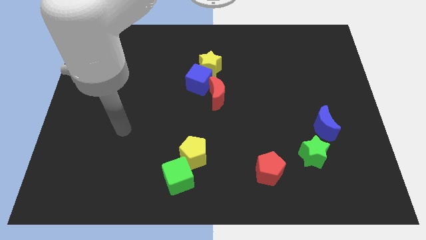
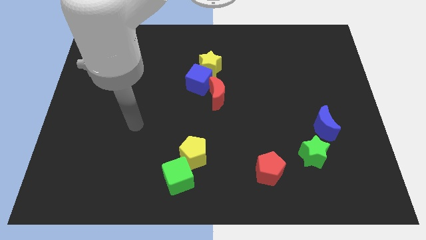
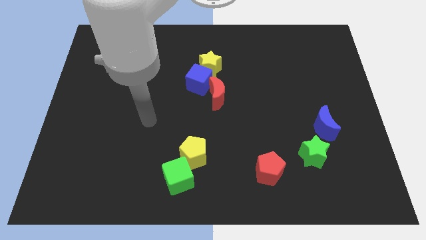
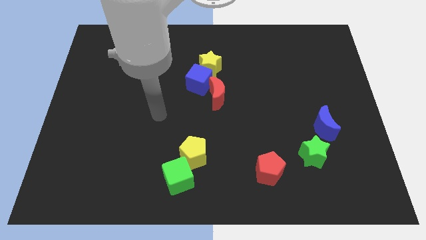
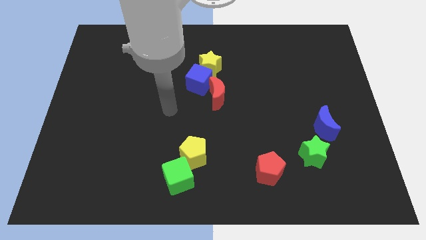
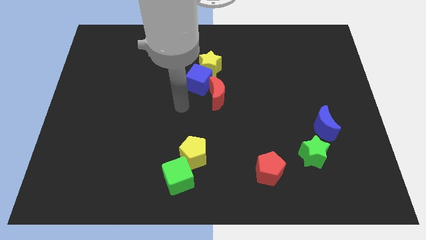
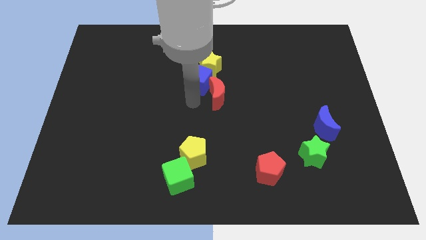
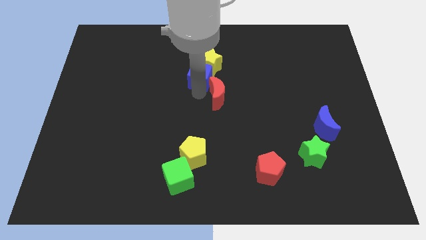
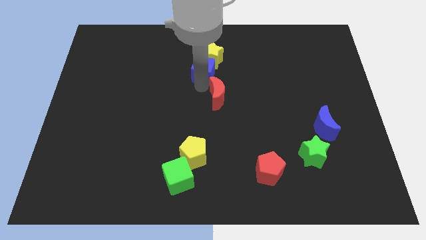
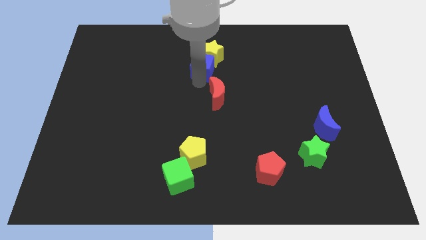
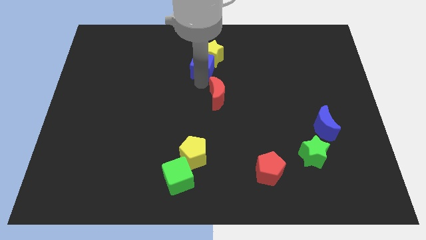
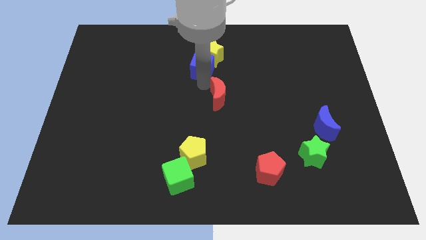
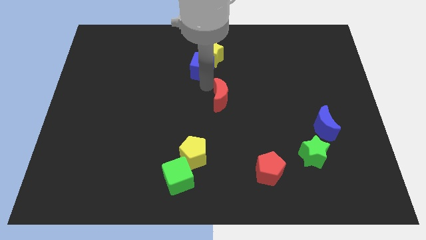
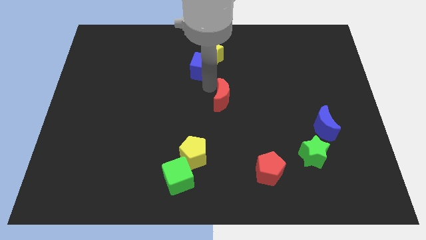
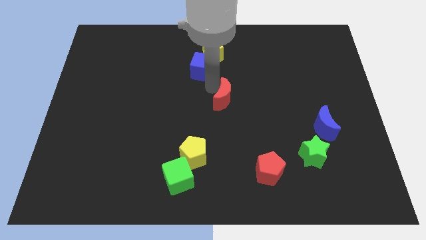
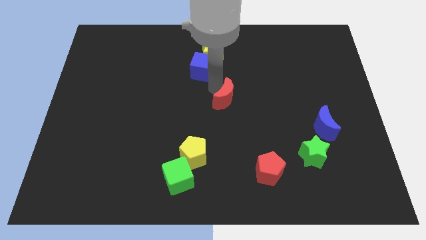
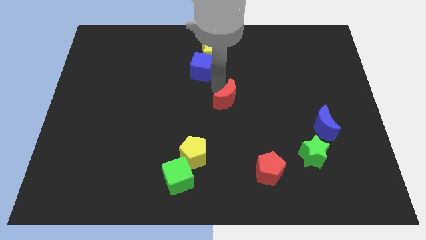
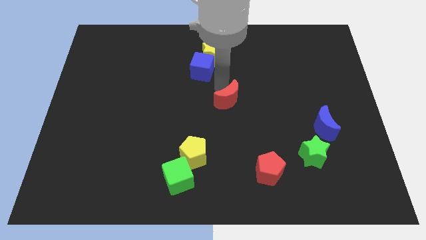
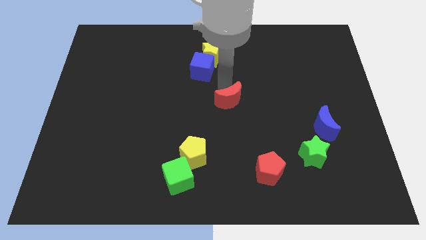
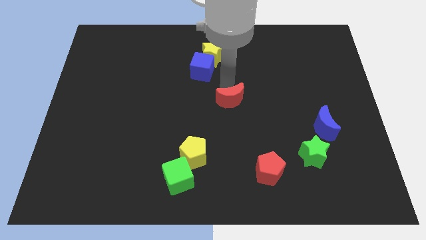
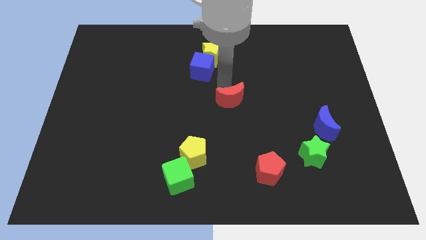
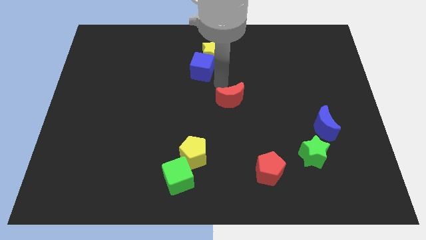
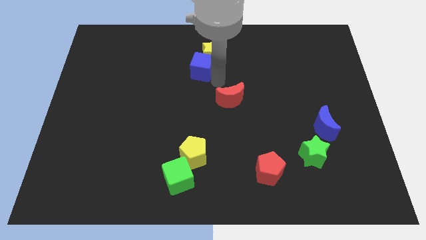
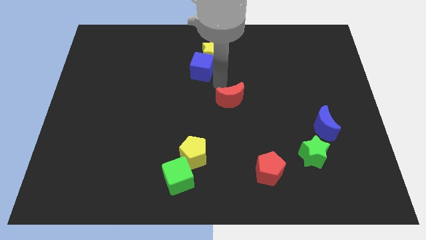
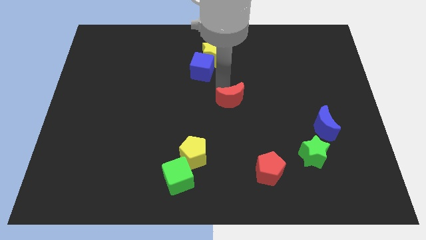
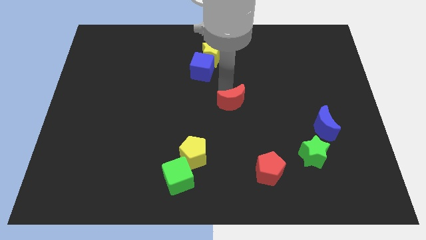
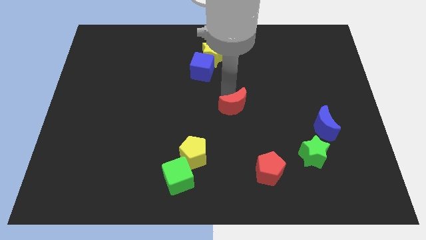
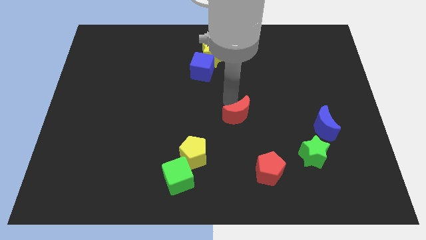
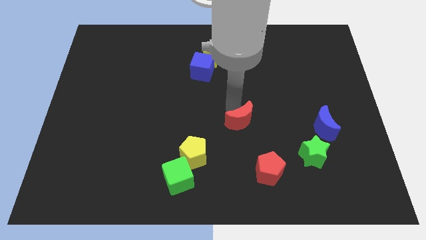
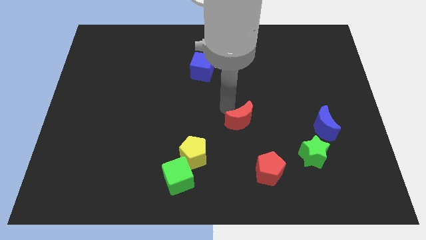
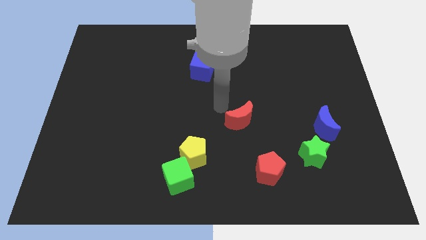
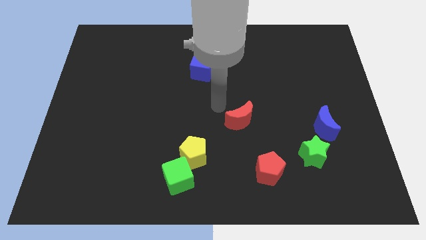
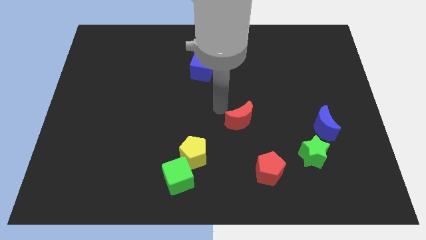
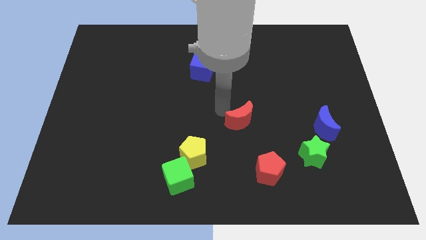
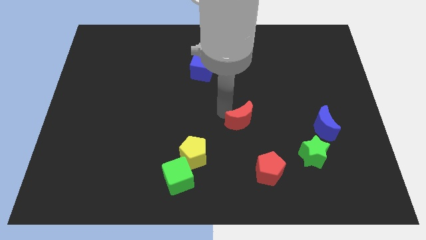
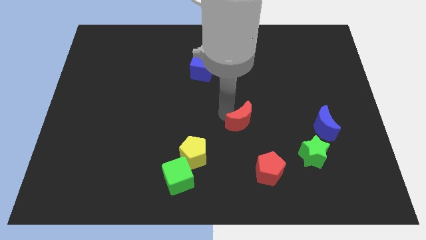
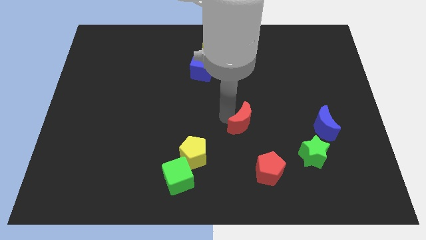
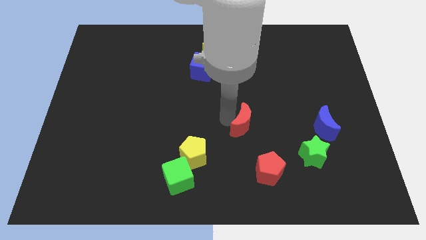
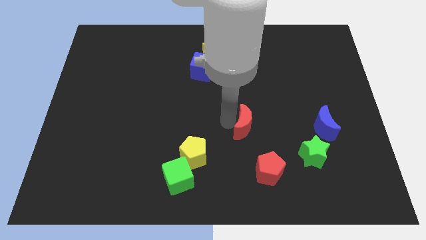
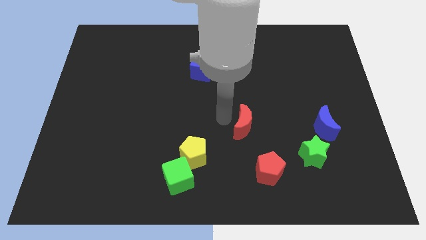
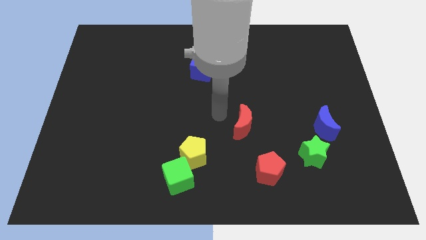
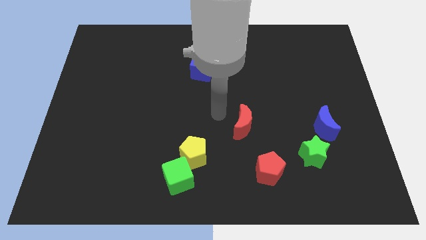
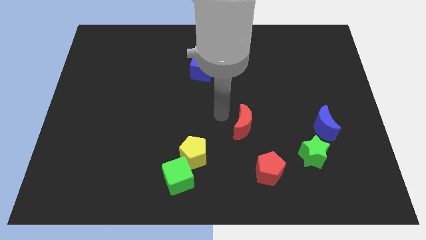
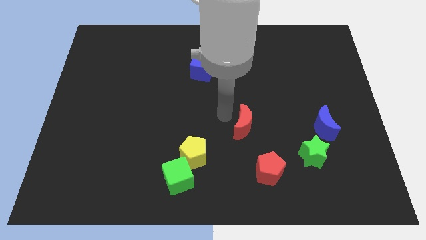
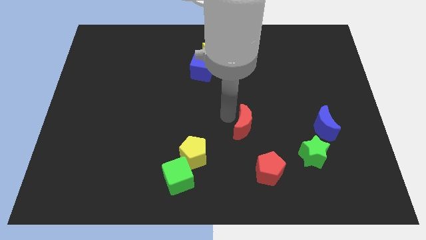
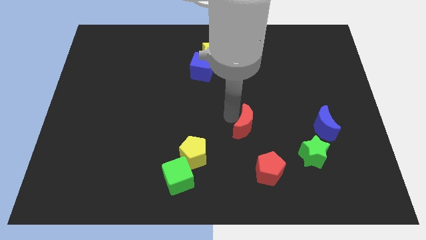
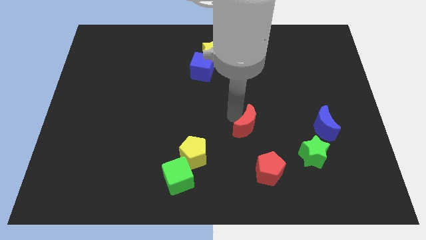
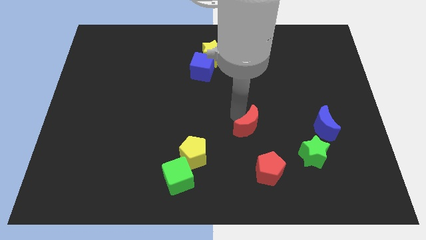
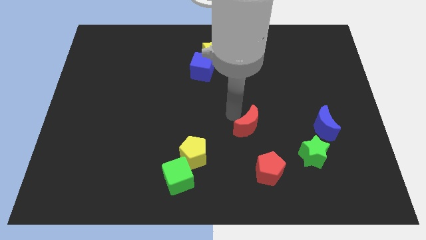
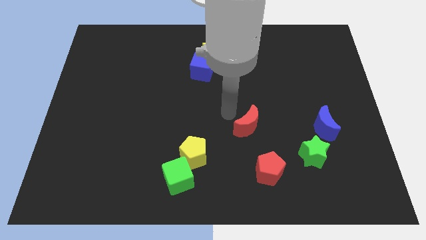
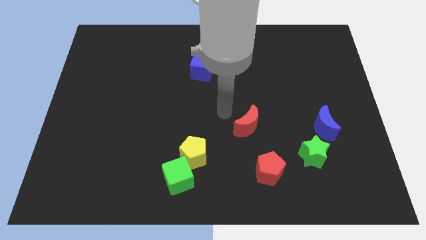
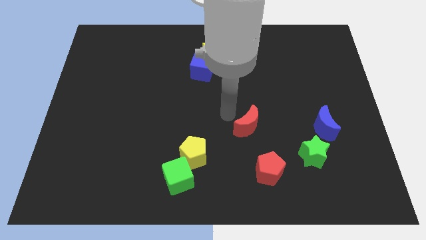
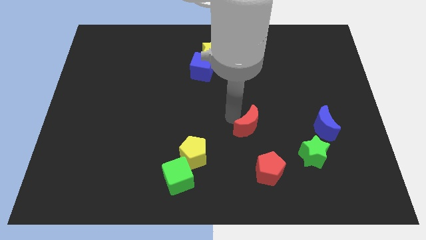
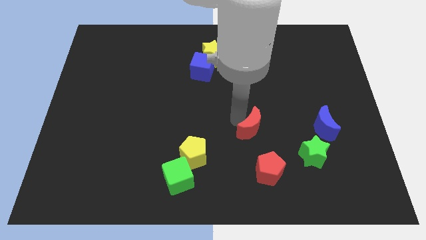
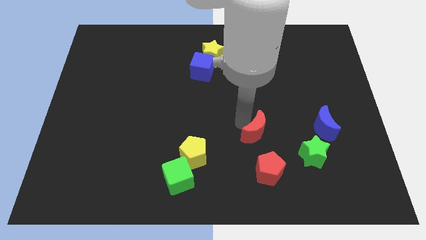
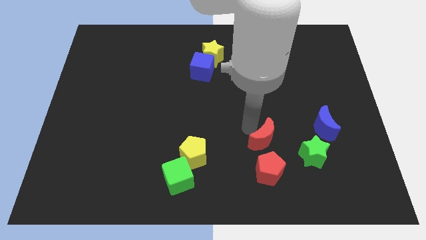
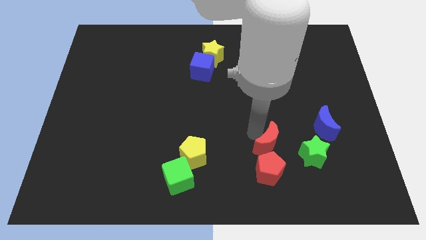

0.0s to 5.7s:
push the red moon diagonally up and to the right of the red pentagon

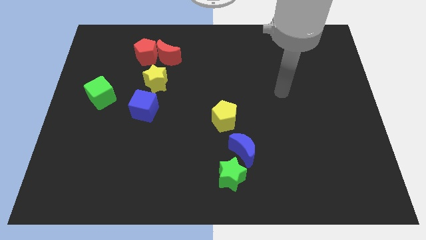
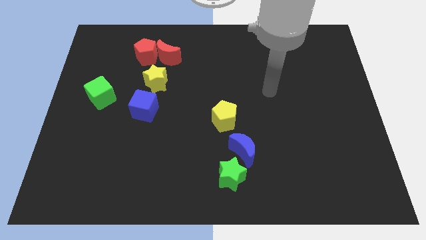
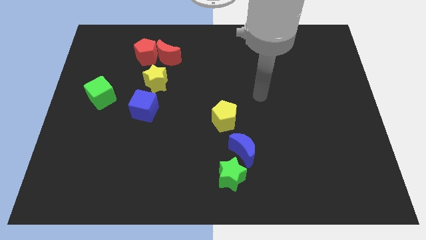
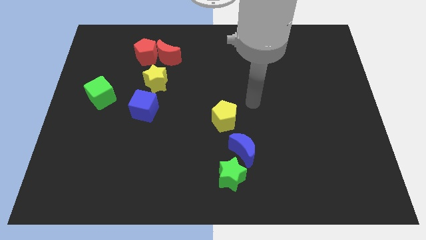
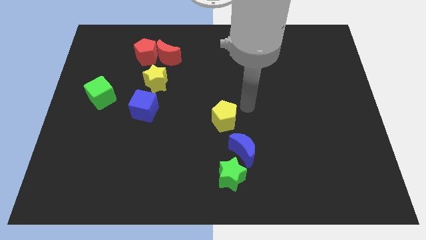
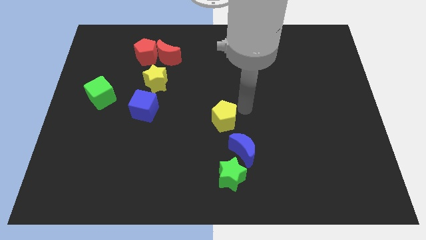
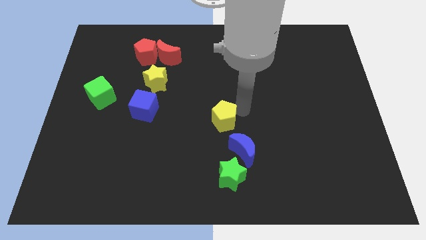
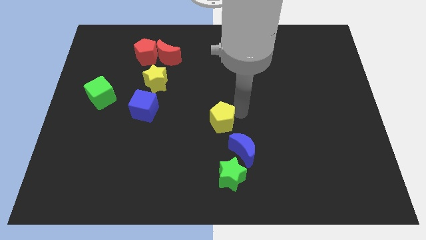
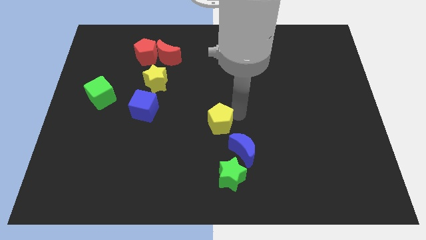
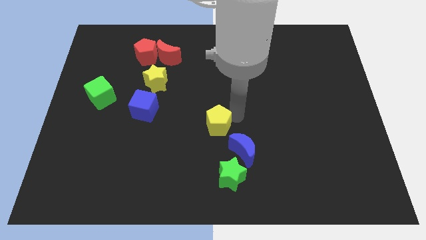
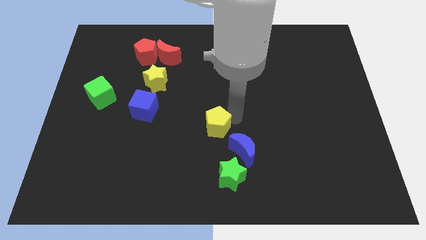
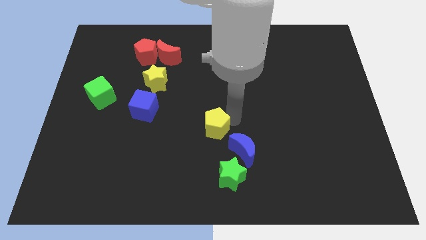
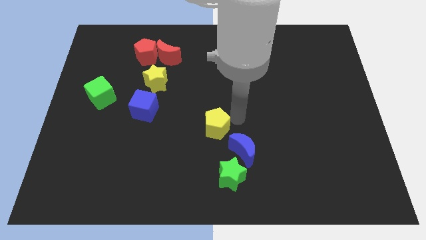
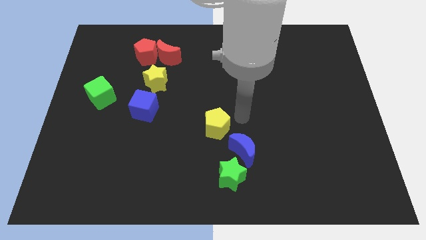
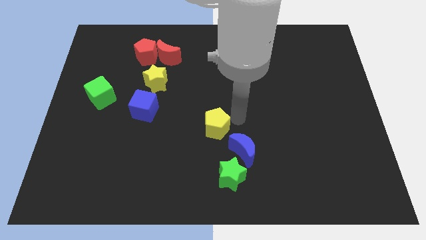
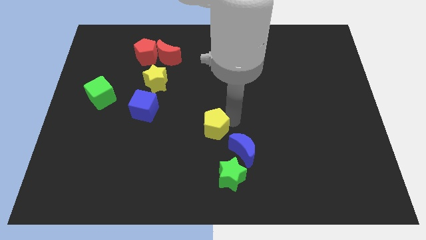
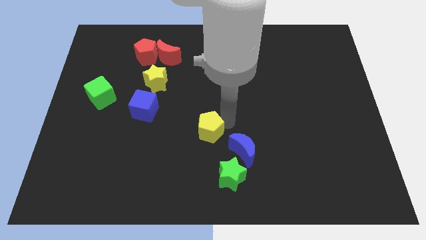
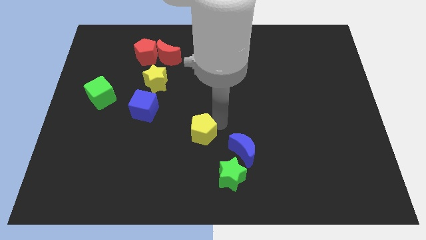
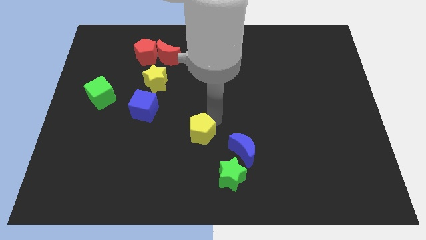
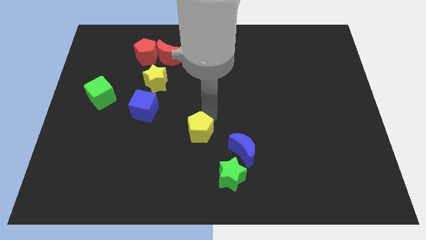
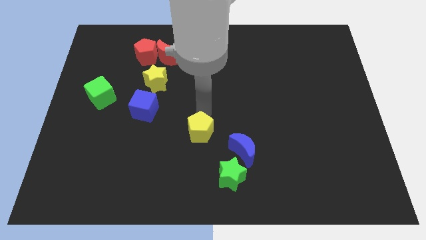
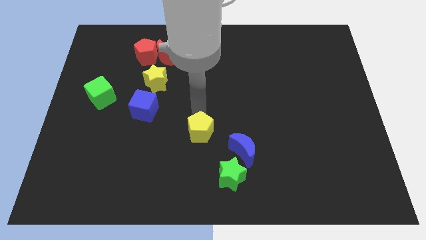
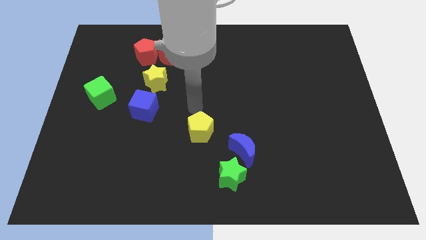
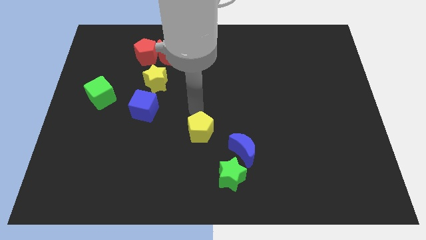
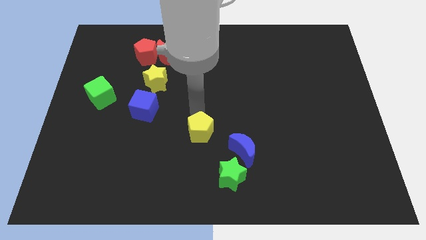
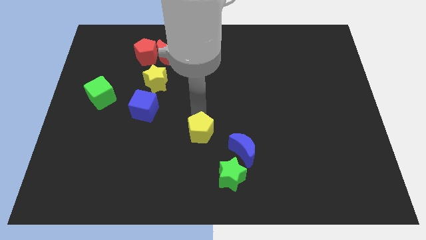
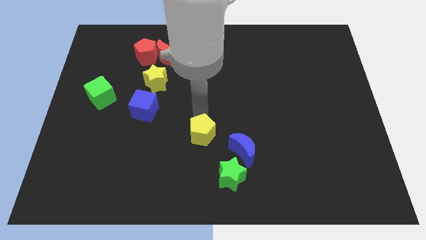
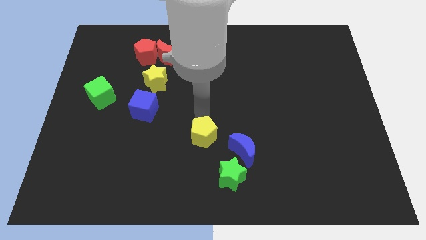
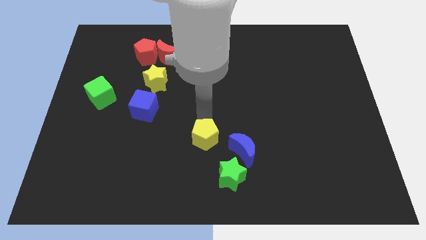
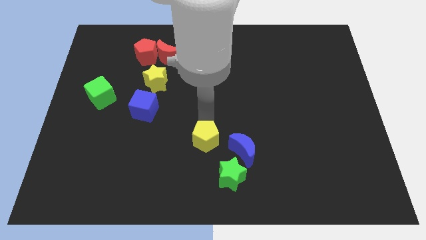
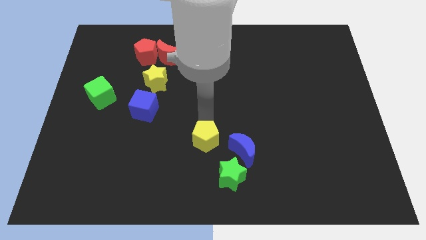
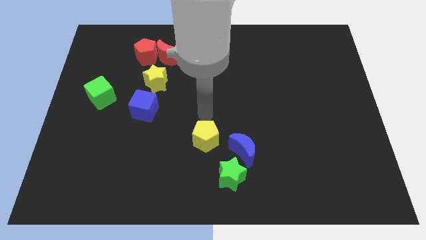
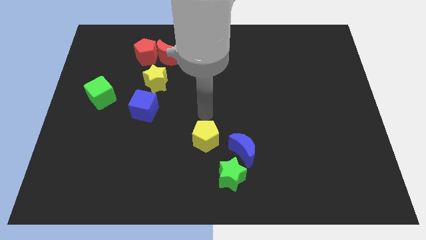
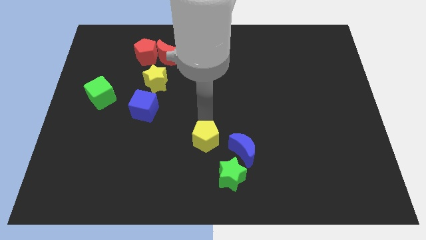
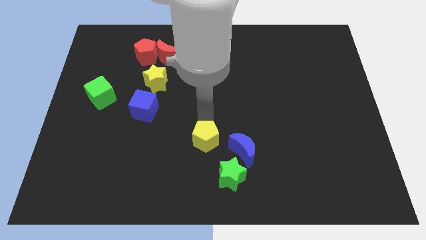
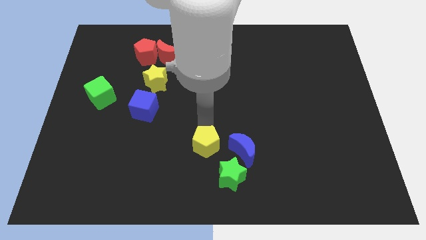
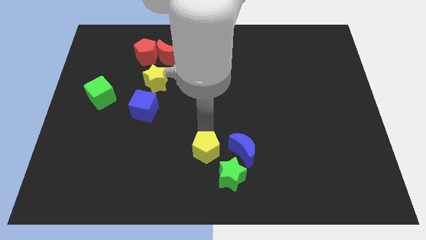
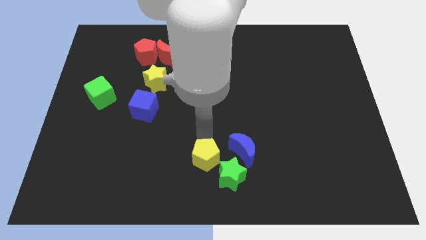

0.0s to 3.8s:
put the yellow pentagon to the bottom left of the blue moon
